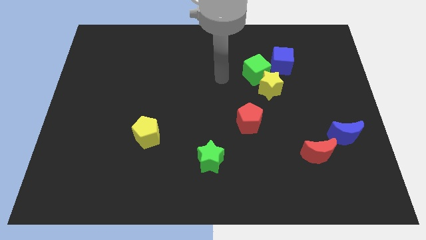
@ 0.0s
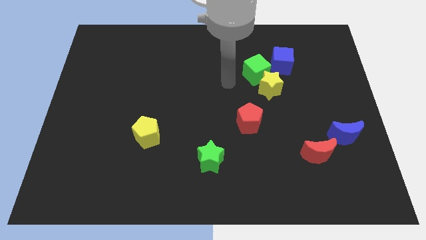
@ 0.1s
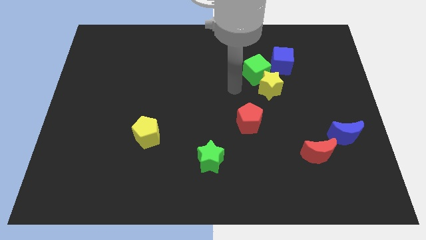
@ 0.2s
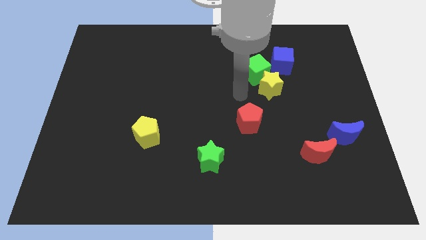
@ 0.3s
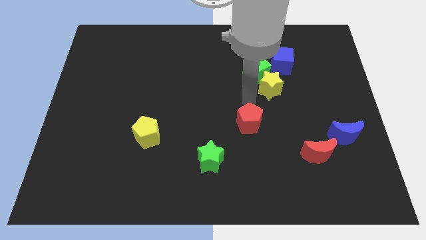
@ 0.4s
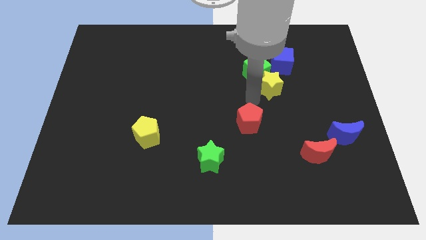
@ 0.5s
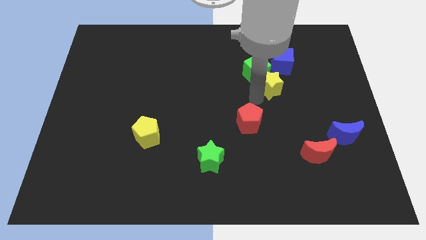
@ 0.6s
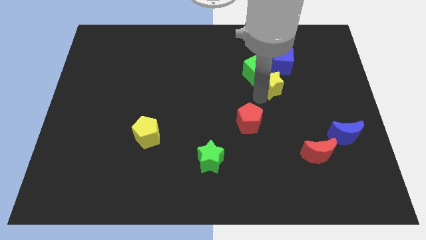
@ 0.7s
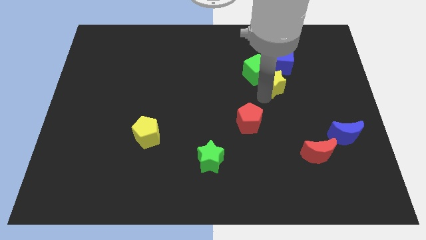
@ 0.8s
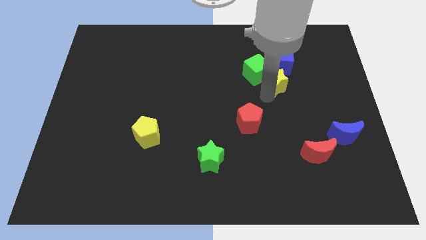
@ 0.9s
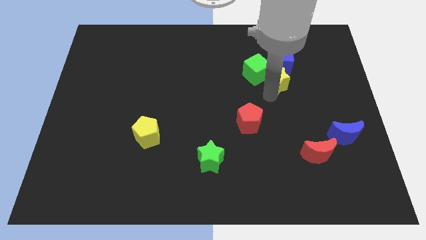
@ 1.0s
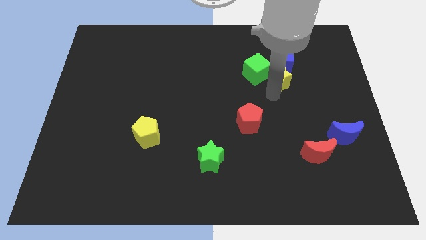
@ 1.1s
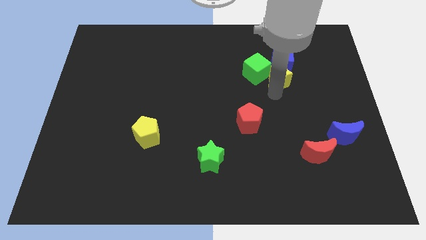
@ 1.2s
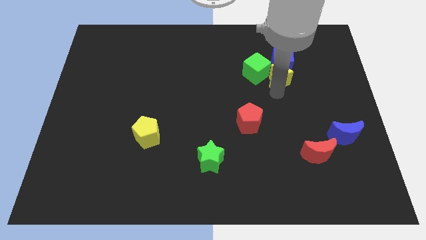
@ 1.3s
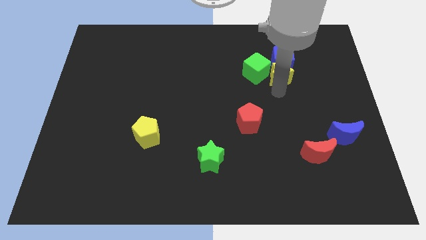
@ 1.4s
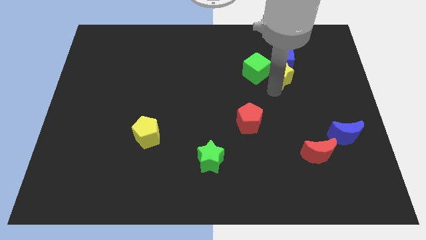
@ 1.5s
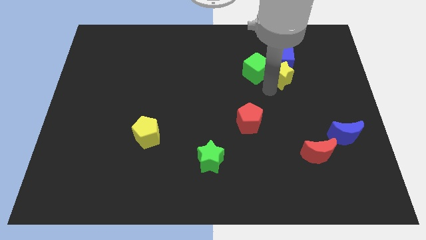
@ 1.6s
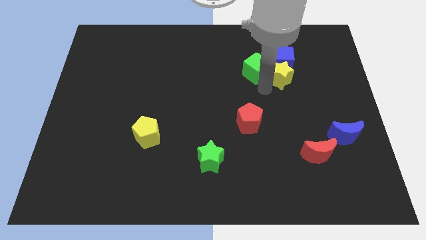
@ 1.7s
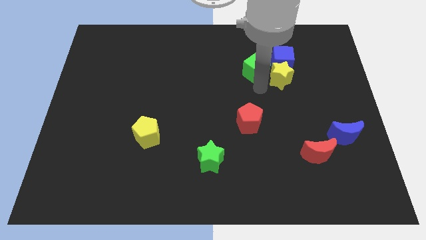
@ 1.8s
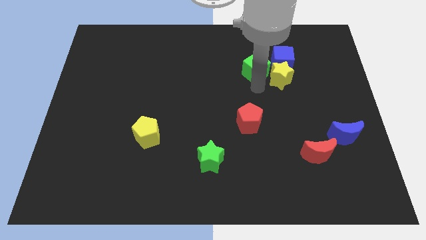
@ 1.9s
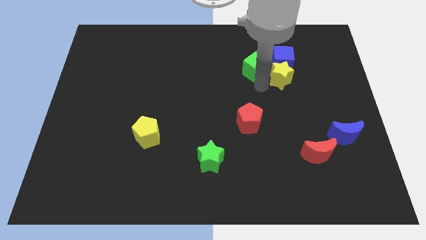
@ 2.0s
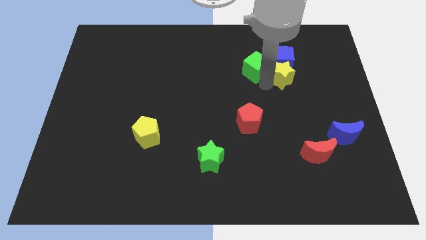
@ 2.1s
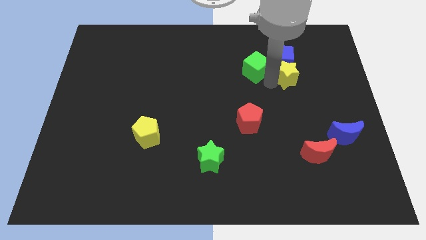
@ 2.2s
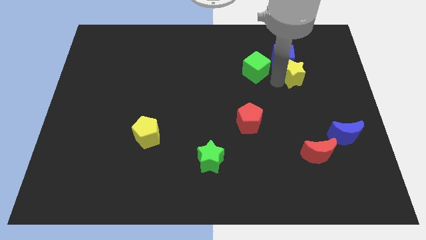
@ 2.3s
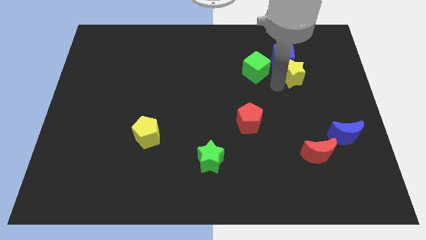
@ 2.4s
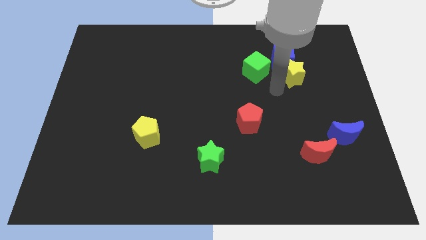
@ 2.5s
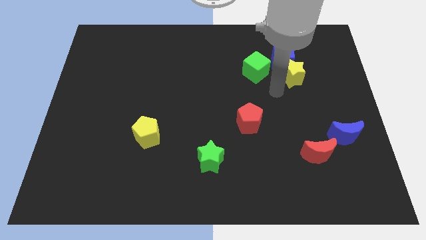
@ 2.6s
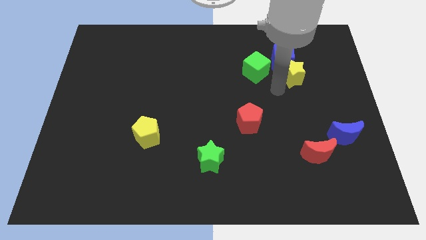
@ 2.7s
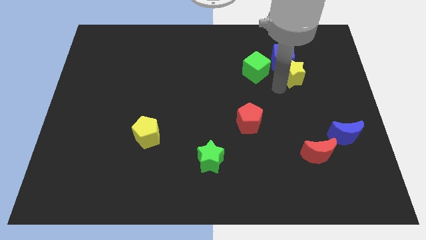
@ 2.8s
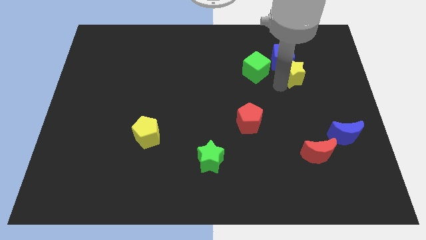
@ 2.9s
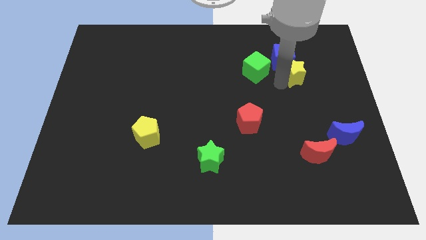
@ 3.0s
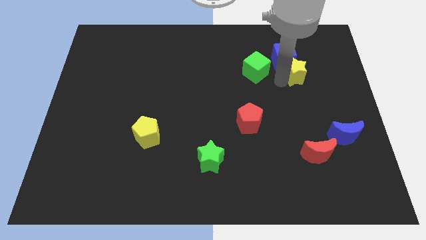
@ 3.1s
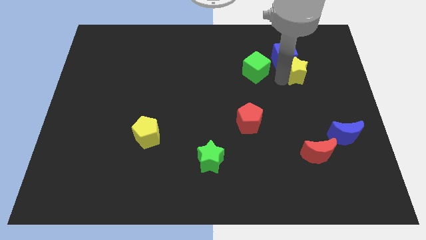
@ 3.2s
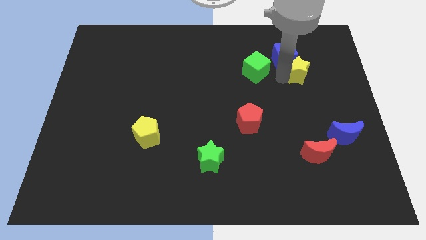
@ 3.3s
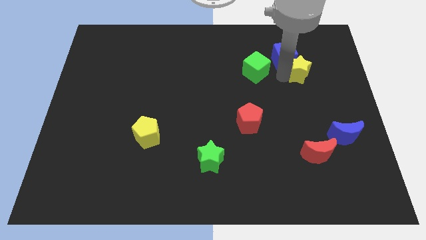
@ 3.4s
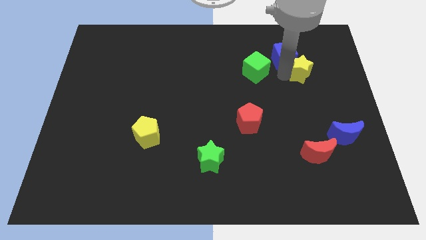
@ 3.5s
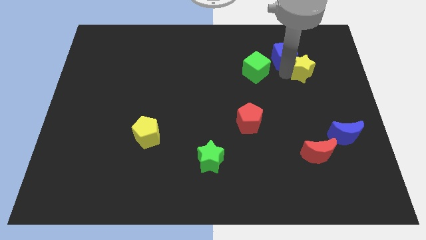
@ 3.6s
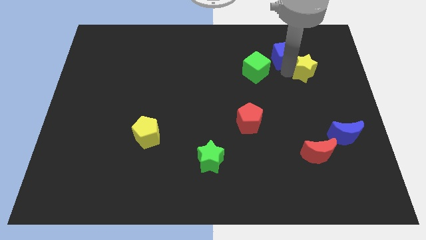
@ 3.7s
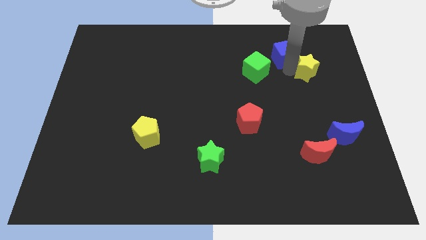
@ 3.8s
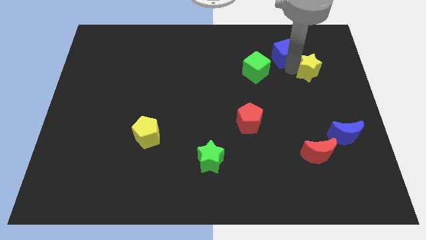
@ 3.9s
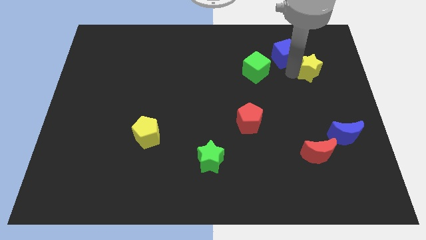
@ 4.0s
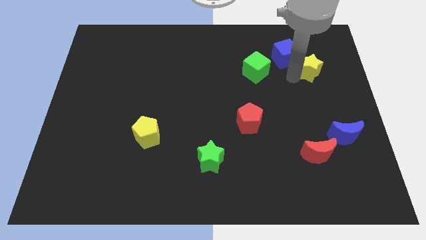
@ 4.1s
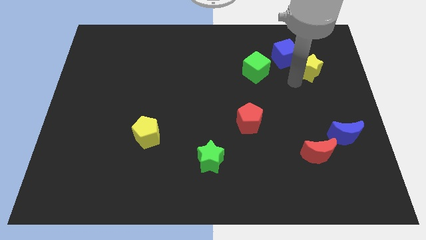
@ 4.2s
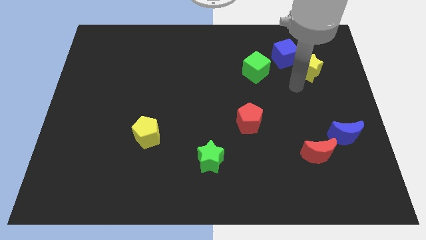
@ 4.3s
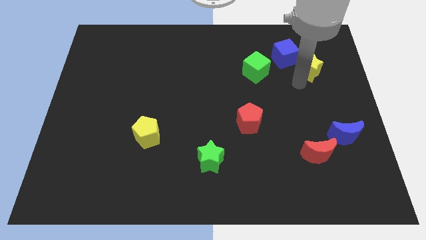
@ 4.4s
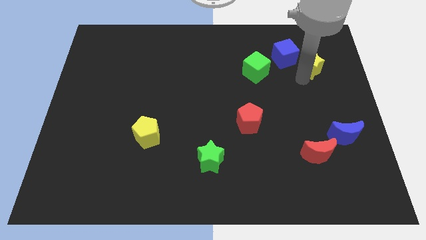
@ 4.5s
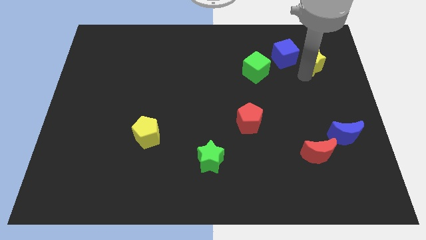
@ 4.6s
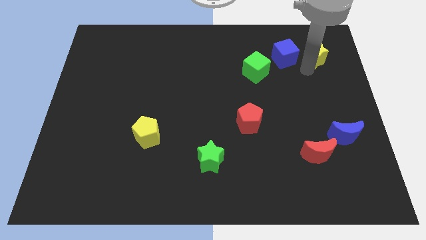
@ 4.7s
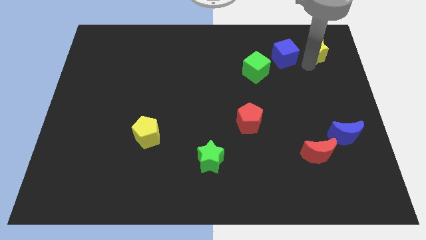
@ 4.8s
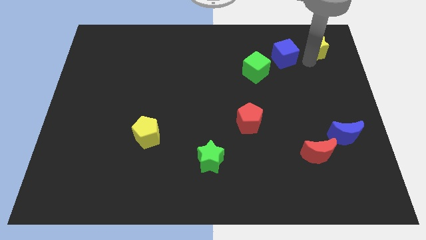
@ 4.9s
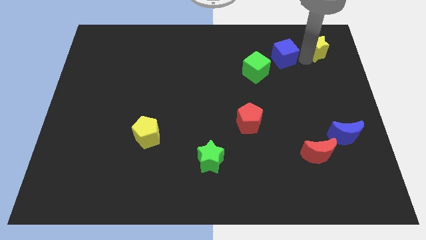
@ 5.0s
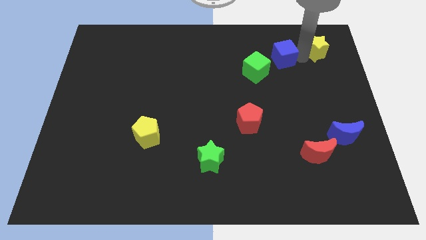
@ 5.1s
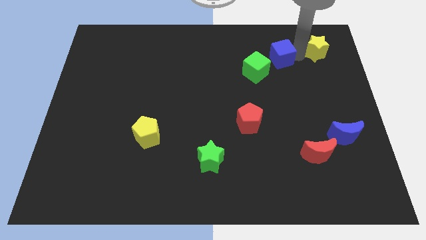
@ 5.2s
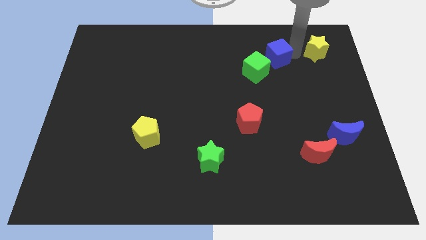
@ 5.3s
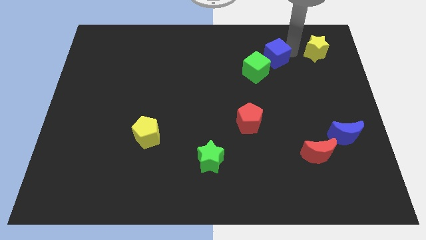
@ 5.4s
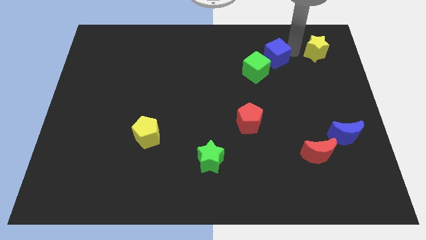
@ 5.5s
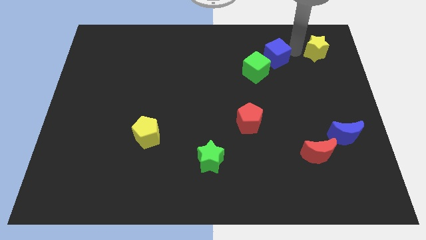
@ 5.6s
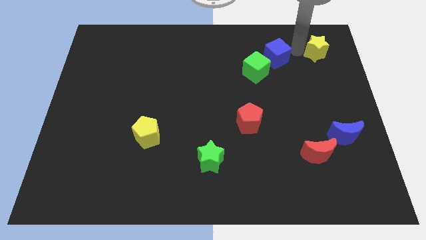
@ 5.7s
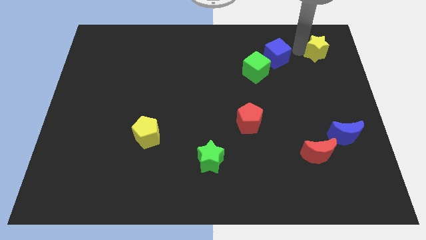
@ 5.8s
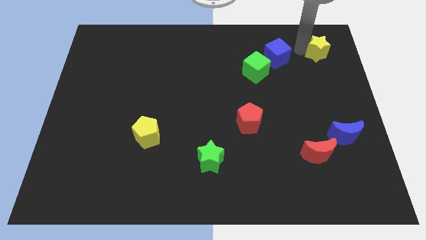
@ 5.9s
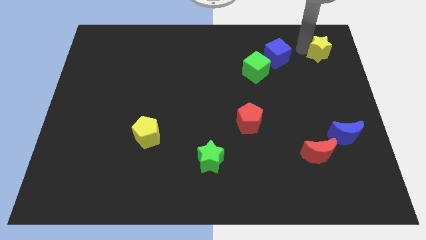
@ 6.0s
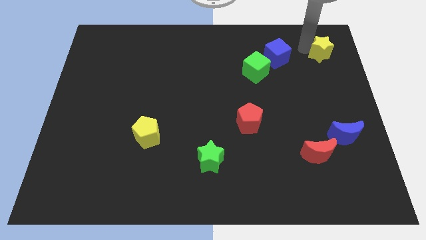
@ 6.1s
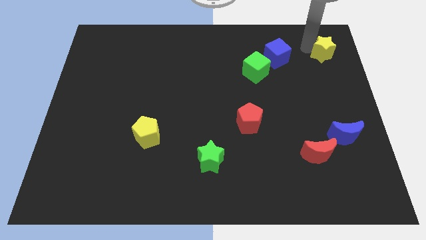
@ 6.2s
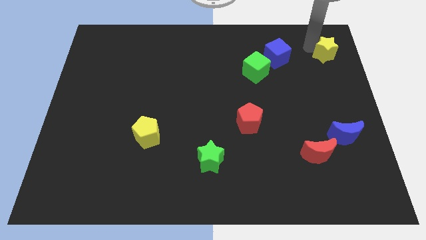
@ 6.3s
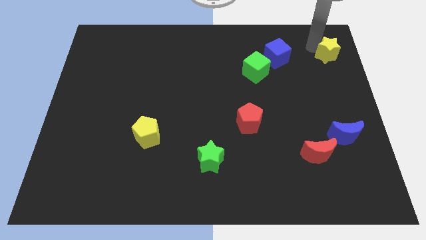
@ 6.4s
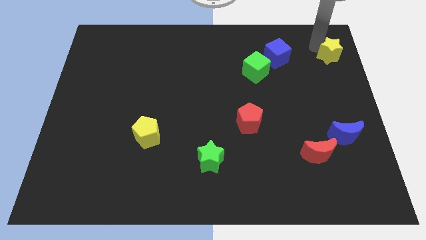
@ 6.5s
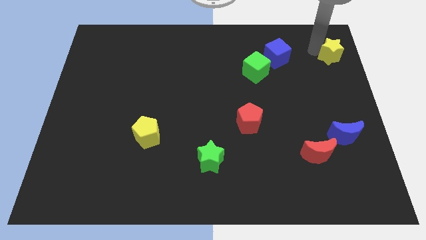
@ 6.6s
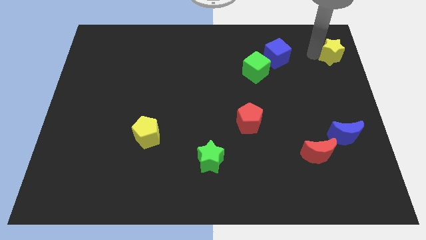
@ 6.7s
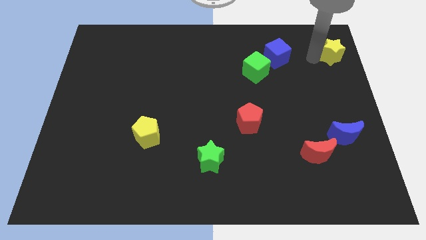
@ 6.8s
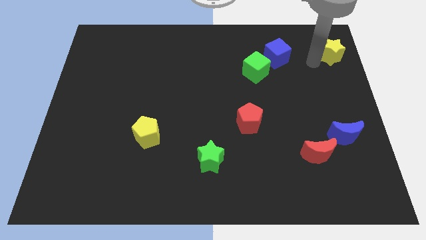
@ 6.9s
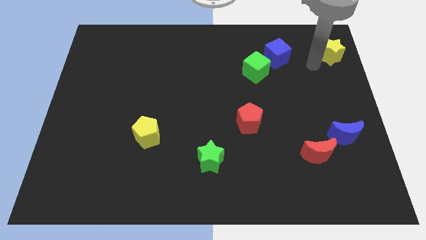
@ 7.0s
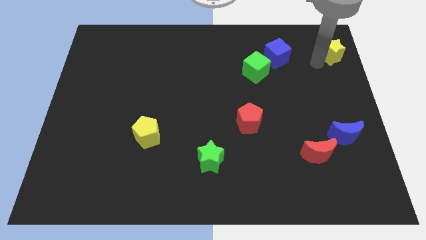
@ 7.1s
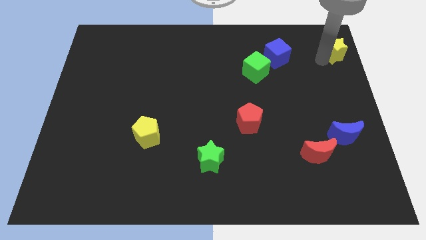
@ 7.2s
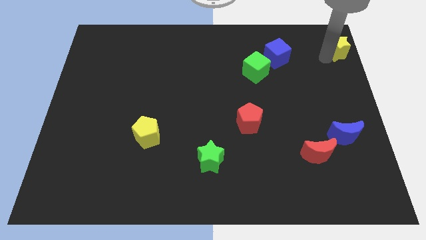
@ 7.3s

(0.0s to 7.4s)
move the yellow star to the top right corner
